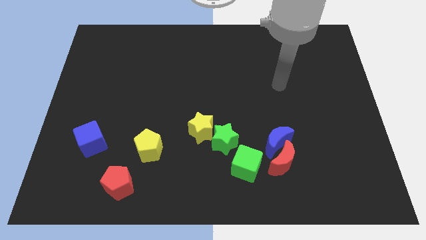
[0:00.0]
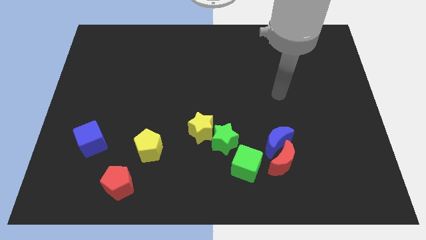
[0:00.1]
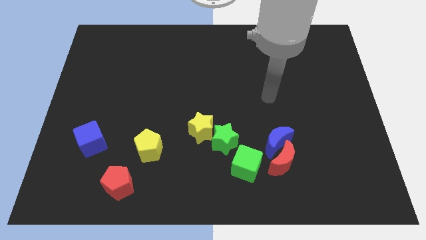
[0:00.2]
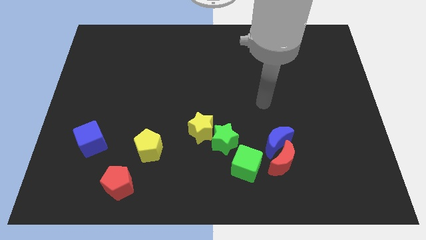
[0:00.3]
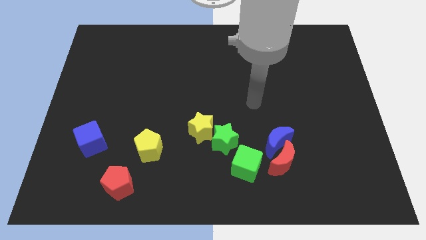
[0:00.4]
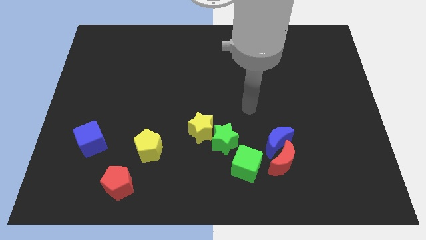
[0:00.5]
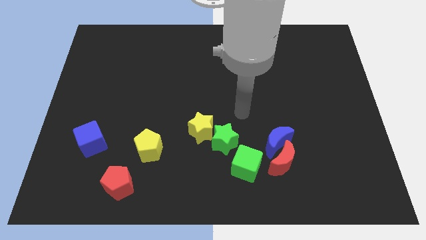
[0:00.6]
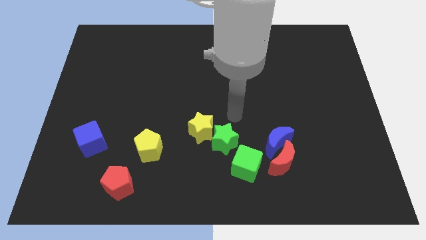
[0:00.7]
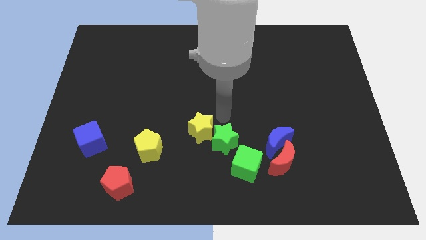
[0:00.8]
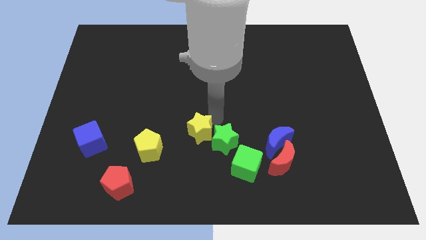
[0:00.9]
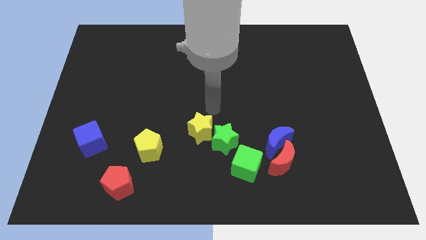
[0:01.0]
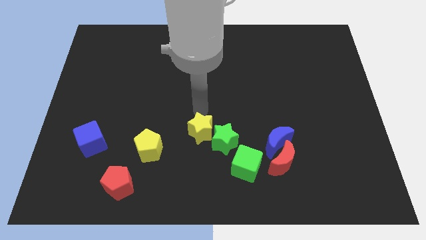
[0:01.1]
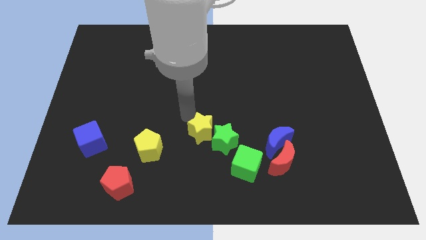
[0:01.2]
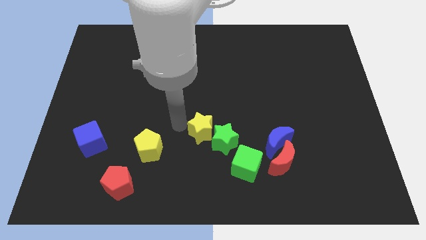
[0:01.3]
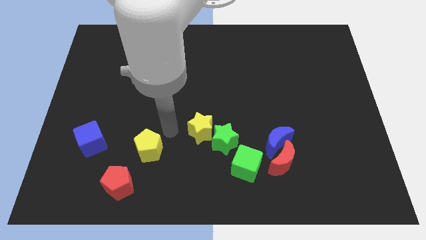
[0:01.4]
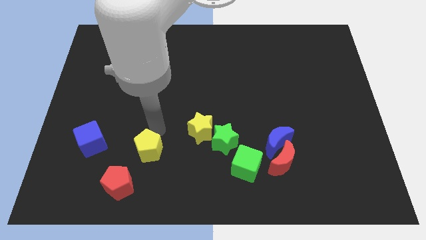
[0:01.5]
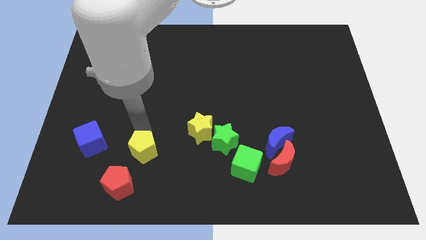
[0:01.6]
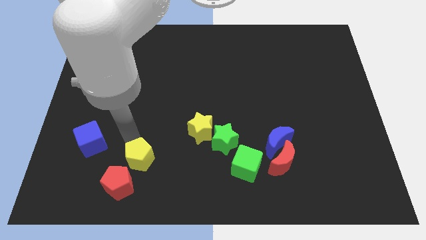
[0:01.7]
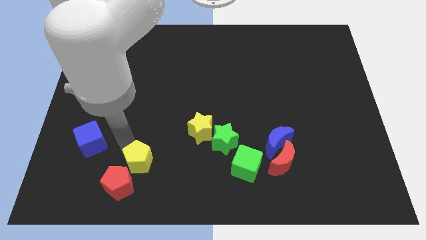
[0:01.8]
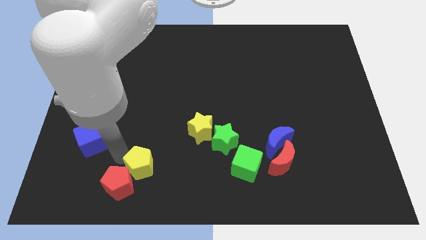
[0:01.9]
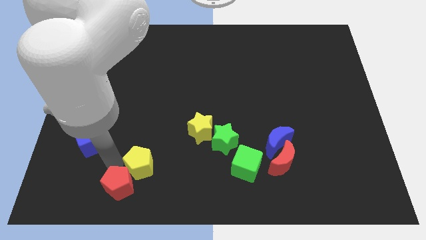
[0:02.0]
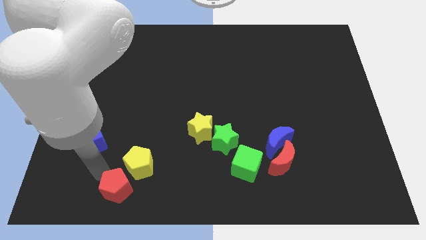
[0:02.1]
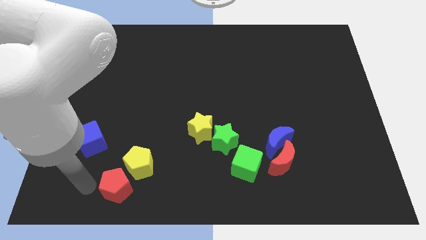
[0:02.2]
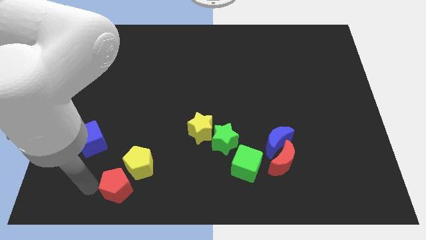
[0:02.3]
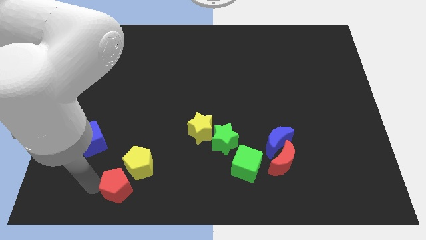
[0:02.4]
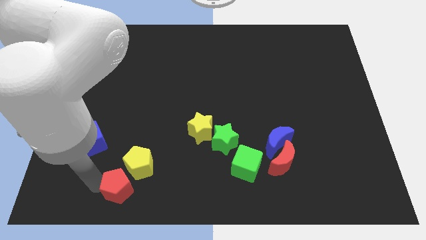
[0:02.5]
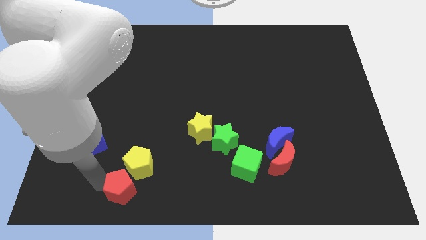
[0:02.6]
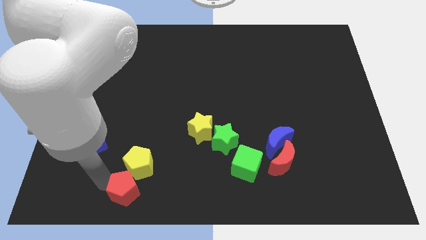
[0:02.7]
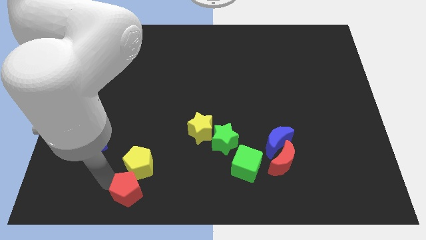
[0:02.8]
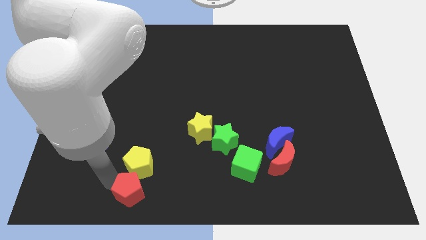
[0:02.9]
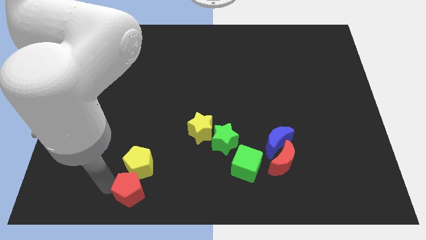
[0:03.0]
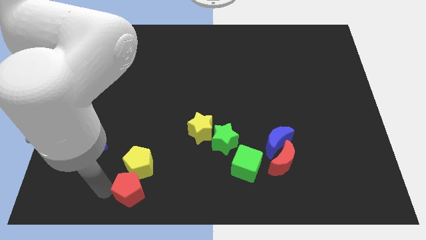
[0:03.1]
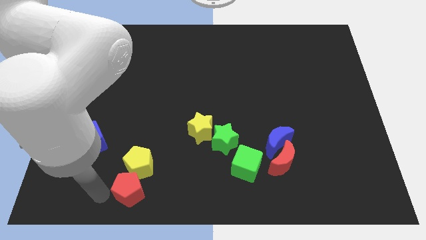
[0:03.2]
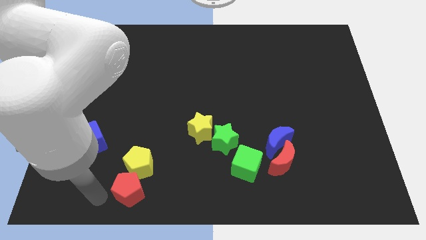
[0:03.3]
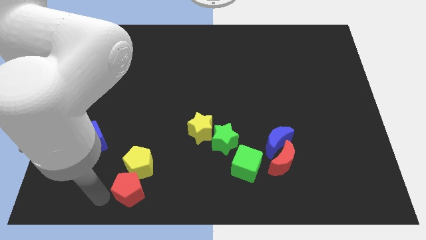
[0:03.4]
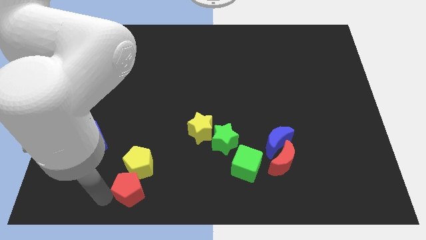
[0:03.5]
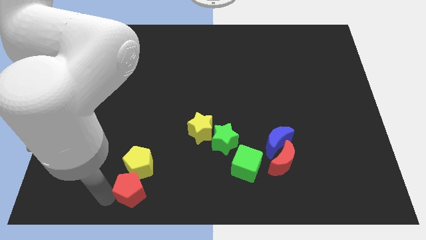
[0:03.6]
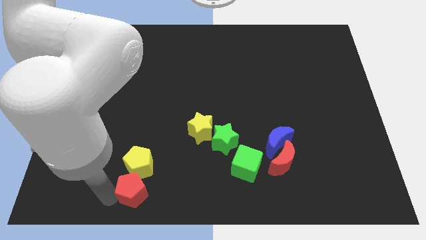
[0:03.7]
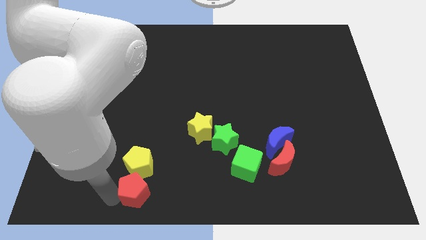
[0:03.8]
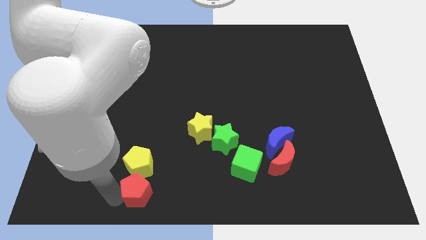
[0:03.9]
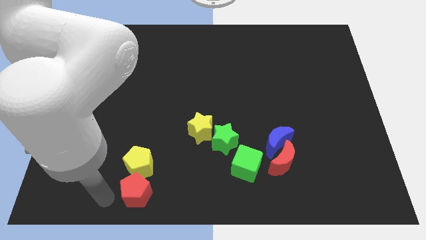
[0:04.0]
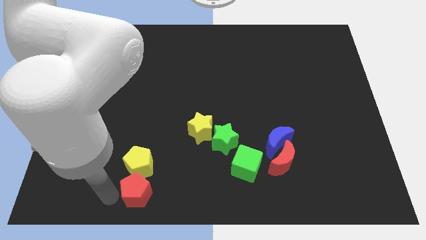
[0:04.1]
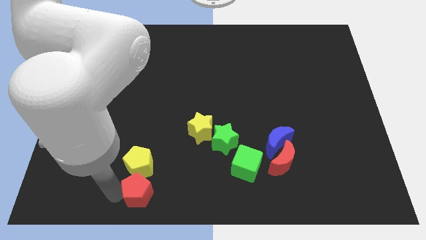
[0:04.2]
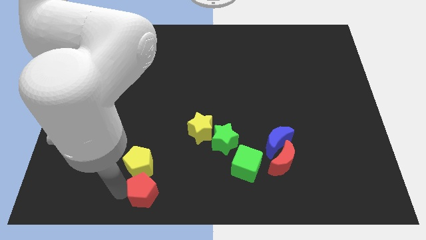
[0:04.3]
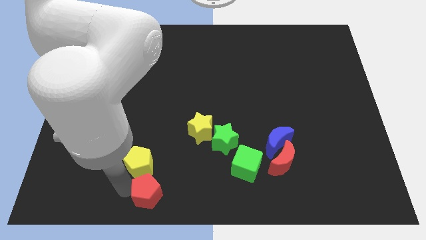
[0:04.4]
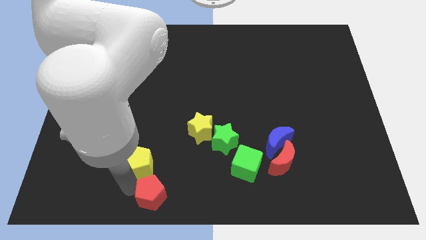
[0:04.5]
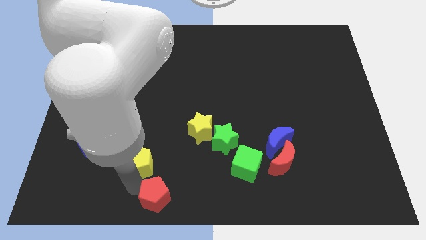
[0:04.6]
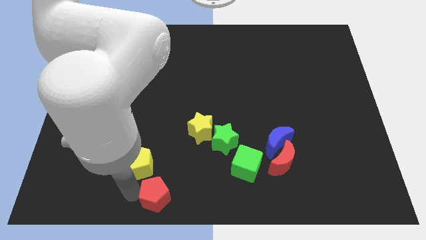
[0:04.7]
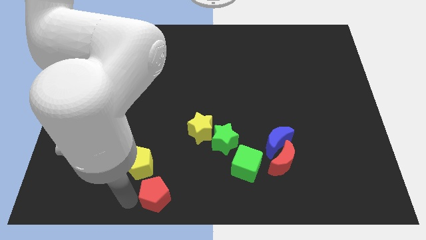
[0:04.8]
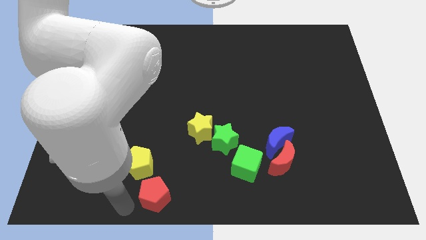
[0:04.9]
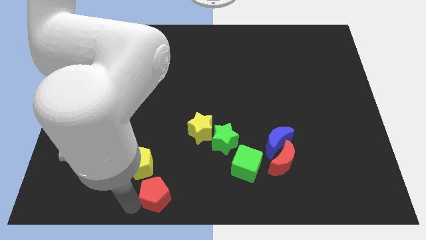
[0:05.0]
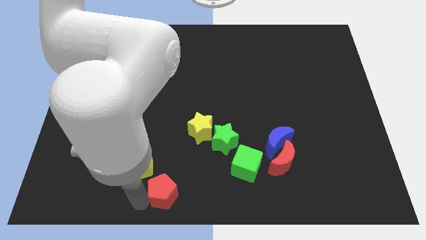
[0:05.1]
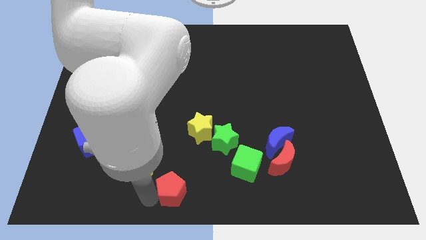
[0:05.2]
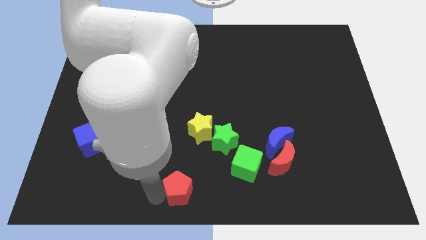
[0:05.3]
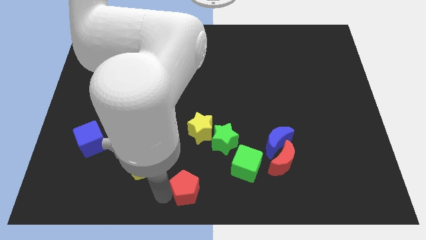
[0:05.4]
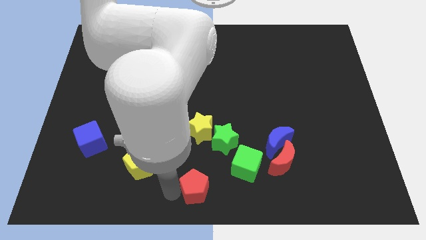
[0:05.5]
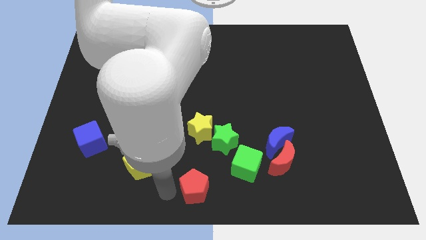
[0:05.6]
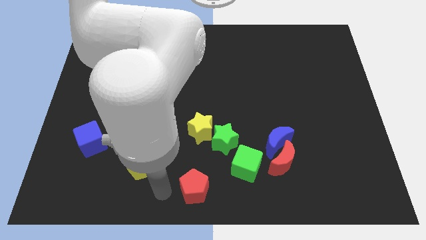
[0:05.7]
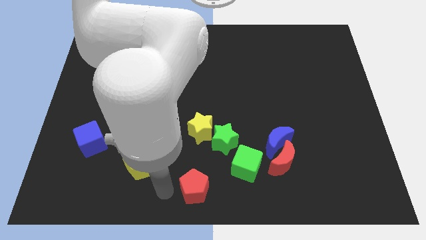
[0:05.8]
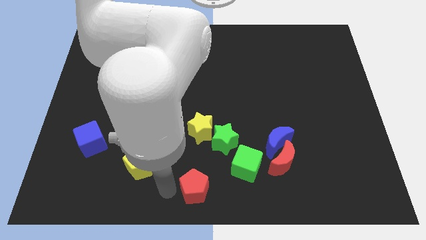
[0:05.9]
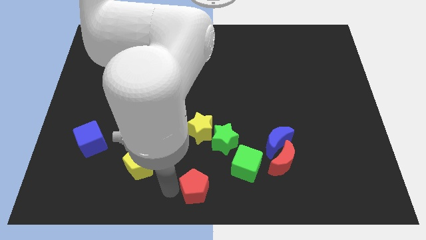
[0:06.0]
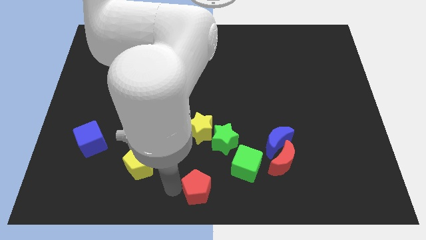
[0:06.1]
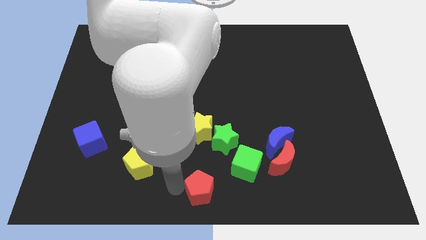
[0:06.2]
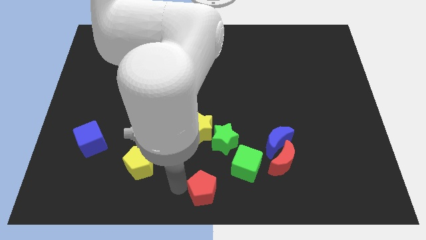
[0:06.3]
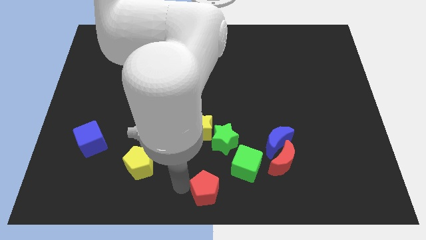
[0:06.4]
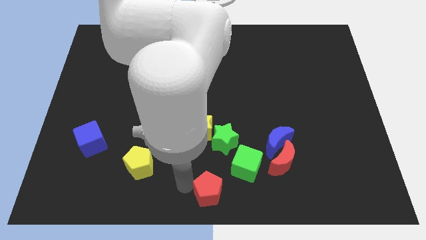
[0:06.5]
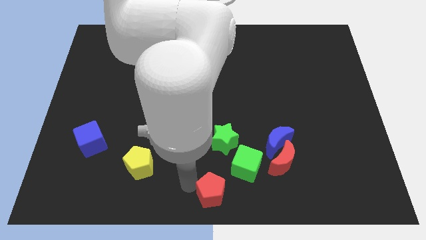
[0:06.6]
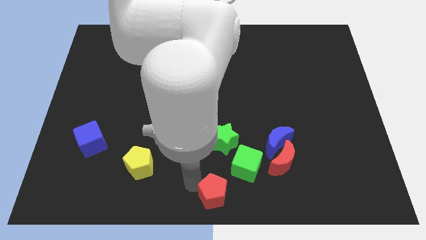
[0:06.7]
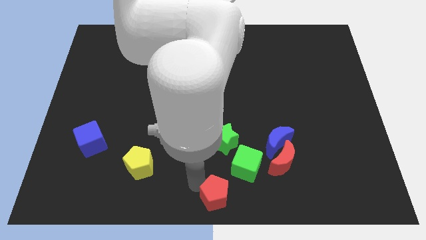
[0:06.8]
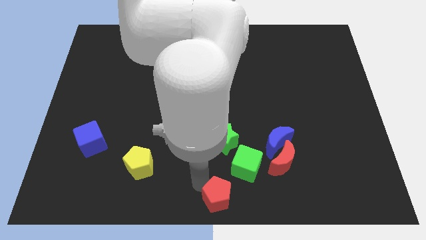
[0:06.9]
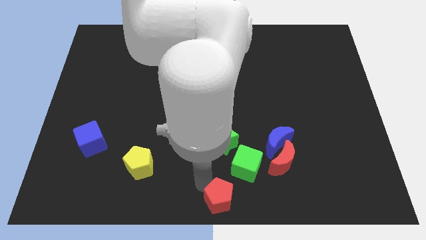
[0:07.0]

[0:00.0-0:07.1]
push the red pentagon right

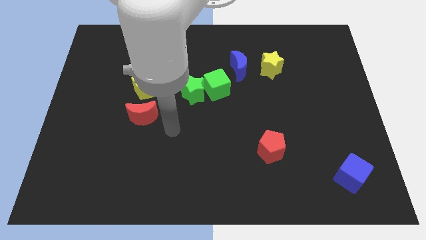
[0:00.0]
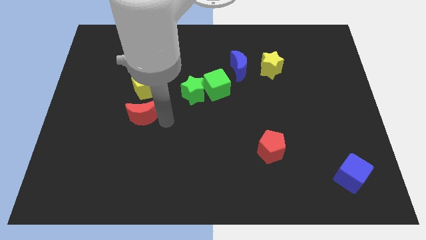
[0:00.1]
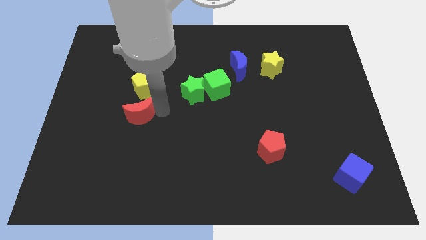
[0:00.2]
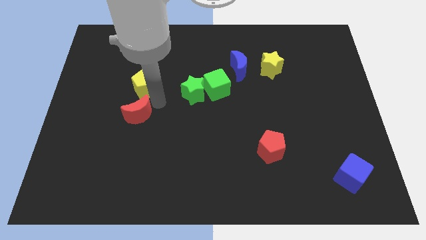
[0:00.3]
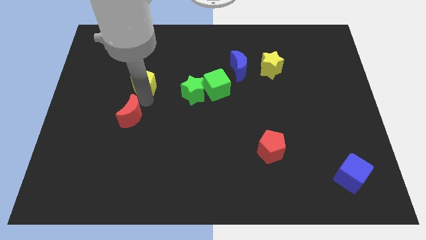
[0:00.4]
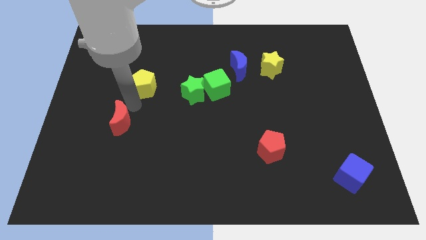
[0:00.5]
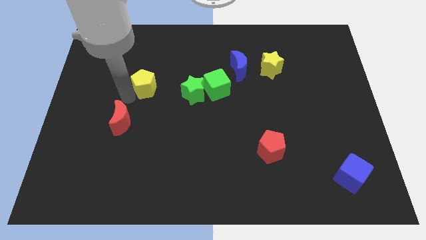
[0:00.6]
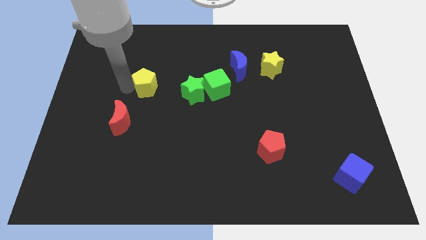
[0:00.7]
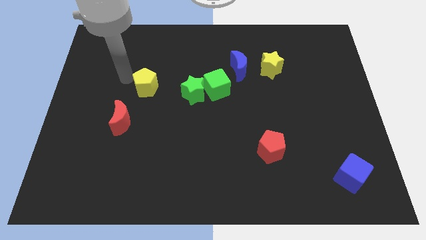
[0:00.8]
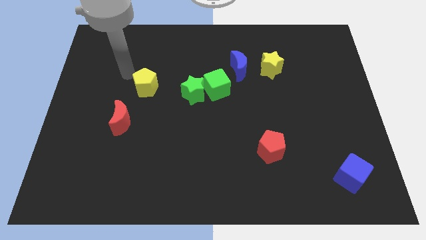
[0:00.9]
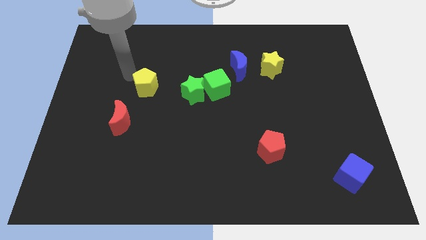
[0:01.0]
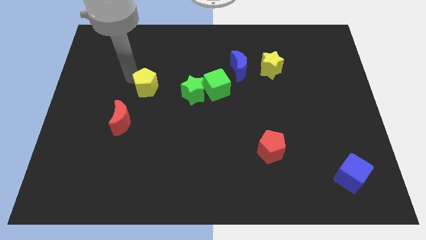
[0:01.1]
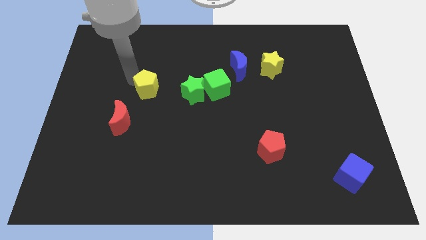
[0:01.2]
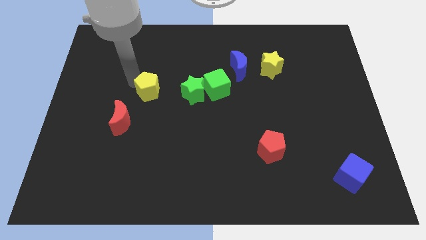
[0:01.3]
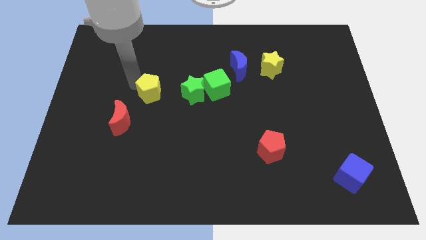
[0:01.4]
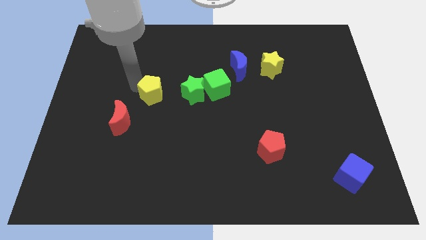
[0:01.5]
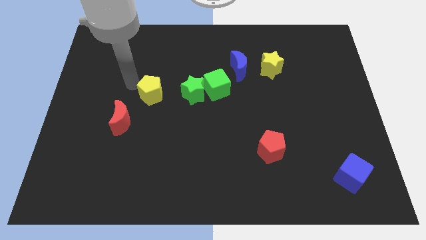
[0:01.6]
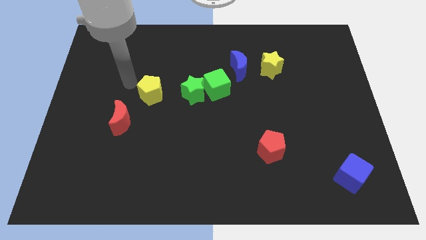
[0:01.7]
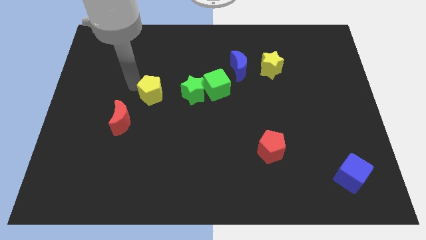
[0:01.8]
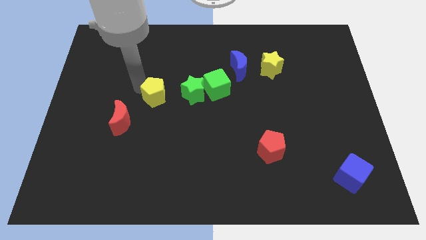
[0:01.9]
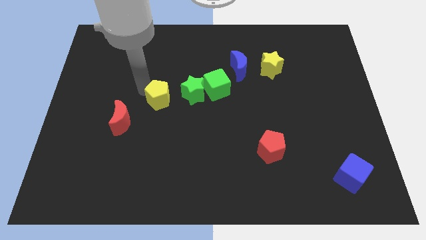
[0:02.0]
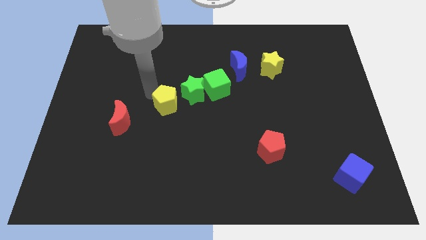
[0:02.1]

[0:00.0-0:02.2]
slightly move the yellow pentagon down and then to the right
